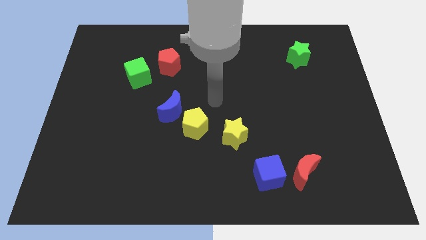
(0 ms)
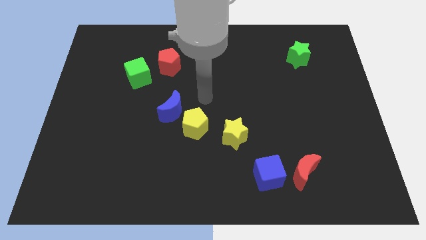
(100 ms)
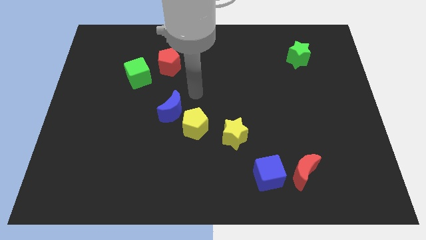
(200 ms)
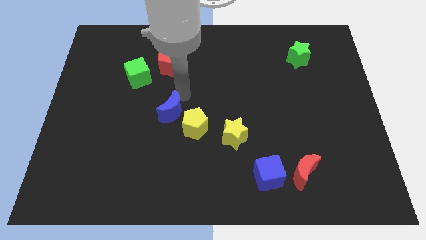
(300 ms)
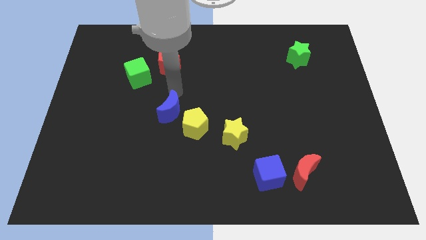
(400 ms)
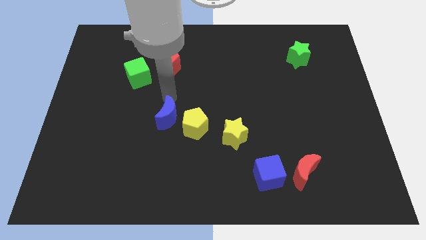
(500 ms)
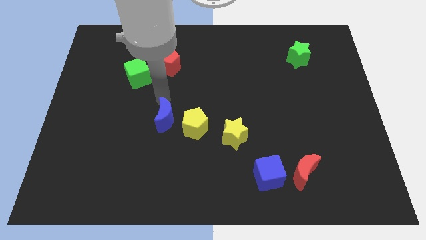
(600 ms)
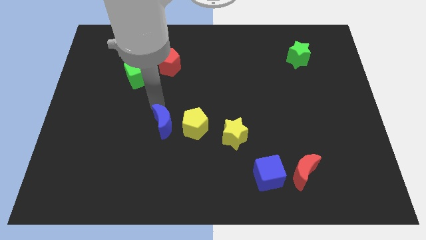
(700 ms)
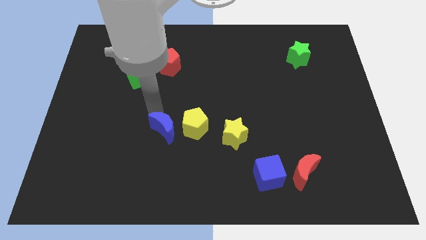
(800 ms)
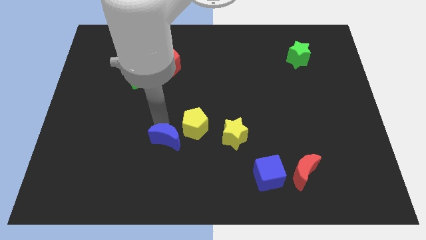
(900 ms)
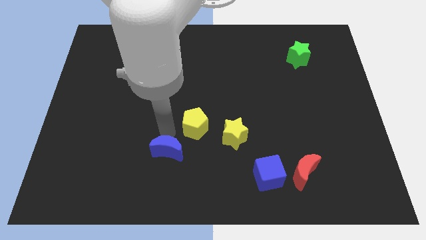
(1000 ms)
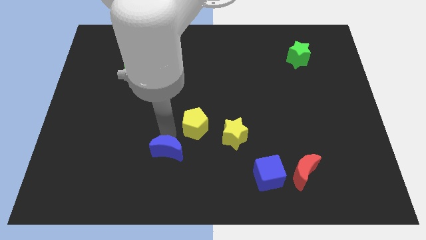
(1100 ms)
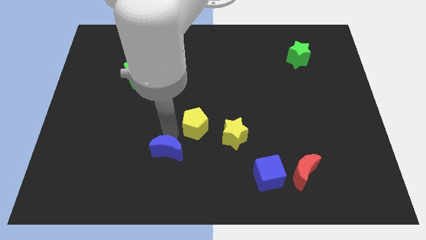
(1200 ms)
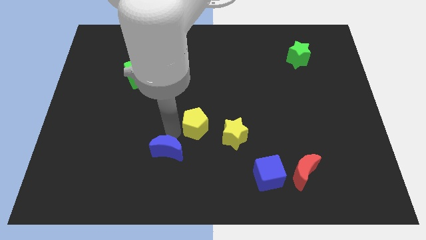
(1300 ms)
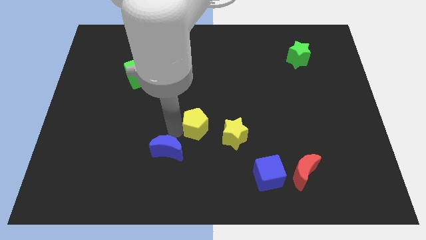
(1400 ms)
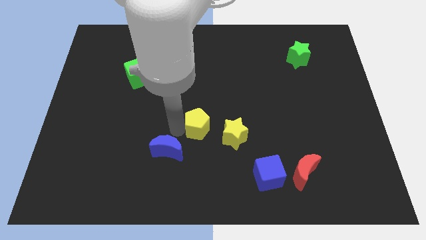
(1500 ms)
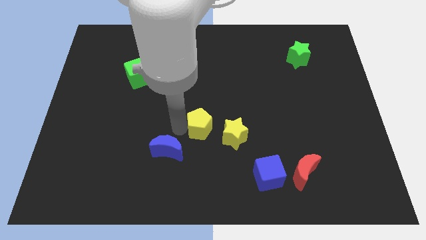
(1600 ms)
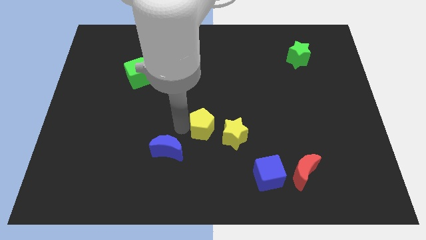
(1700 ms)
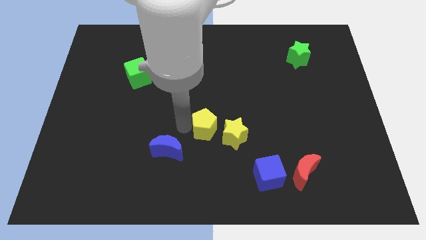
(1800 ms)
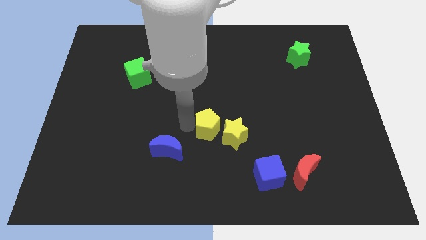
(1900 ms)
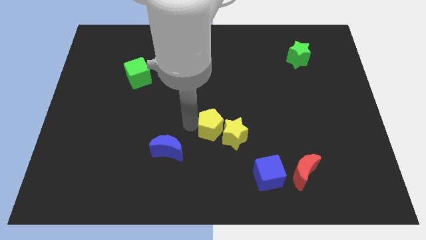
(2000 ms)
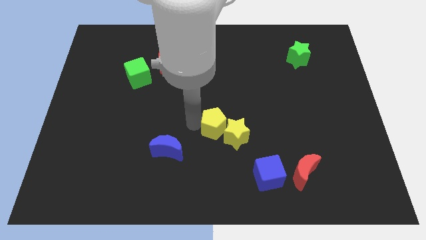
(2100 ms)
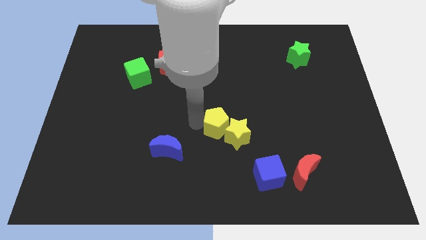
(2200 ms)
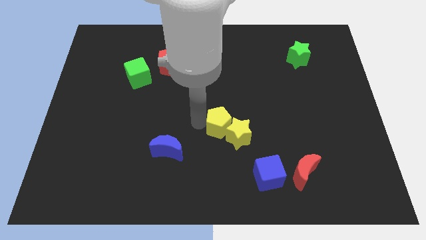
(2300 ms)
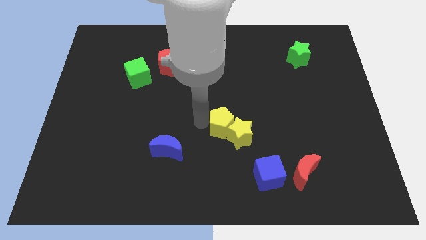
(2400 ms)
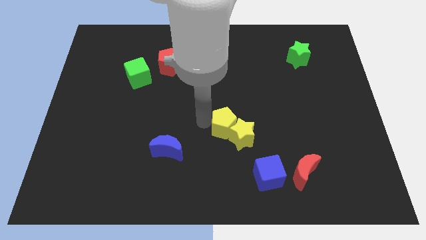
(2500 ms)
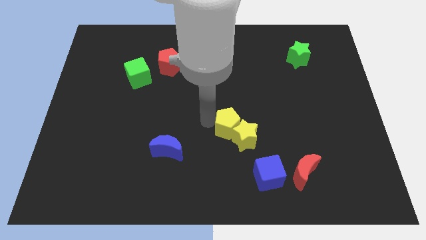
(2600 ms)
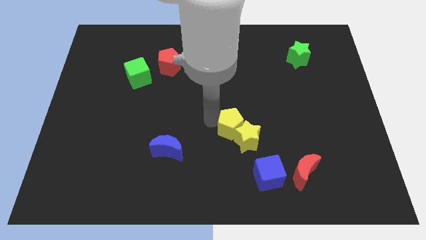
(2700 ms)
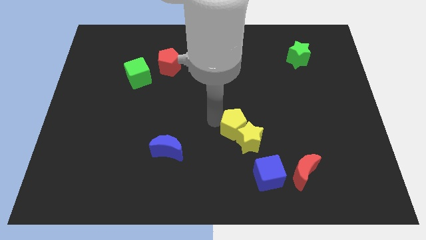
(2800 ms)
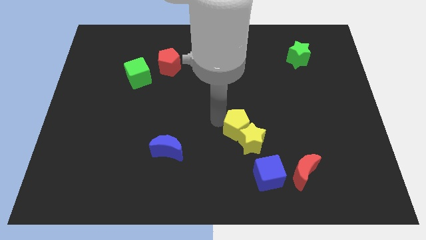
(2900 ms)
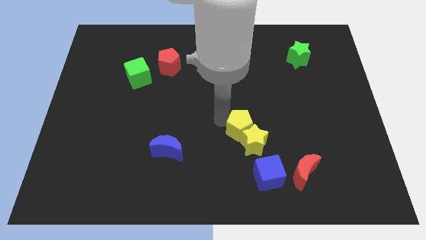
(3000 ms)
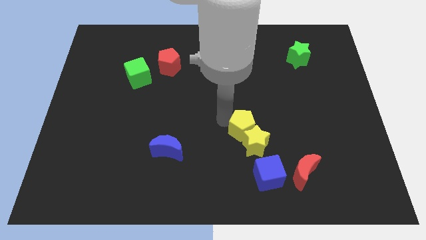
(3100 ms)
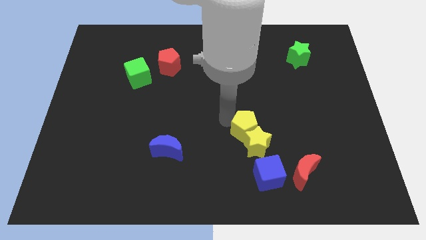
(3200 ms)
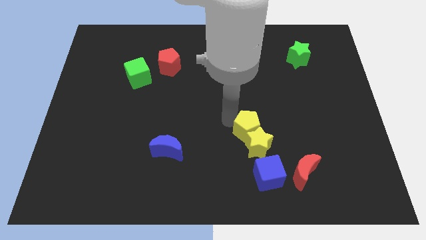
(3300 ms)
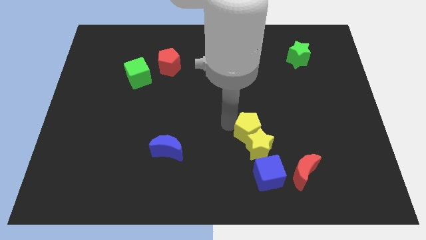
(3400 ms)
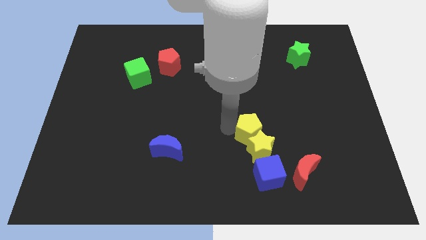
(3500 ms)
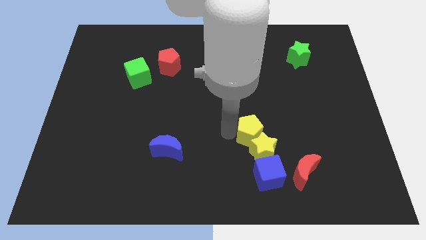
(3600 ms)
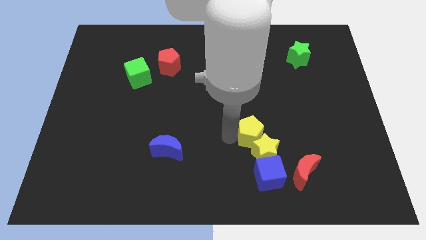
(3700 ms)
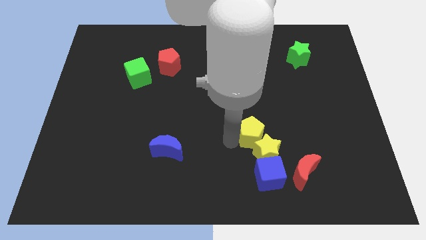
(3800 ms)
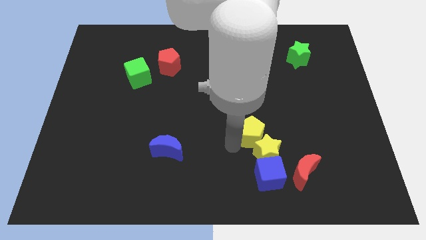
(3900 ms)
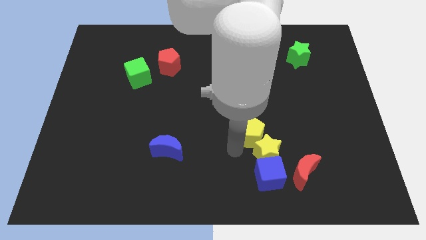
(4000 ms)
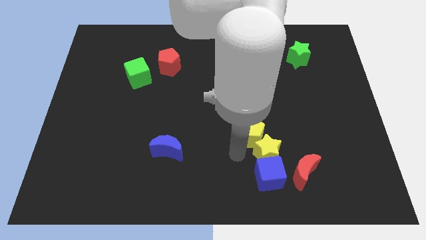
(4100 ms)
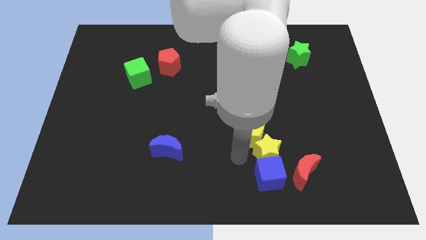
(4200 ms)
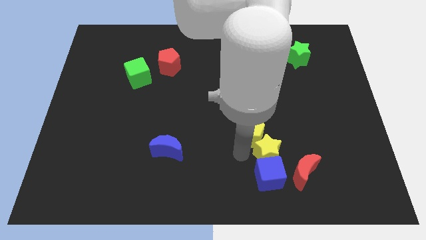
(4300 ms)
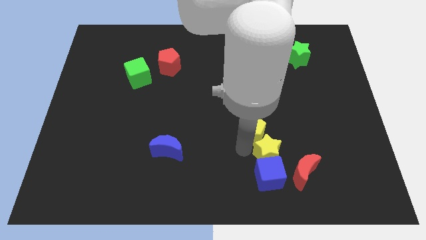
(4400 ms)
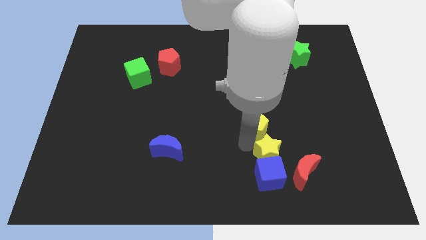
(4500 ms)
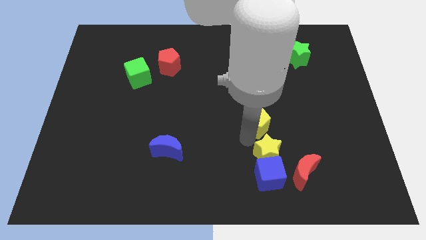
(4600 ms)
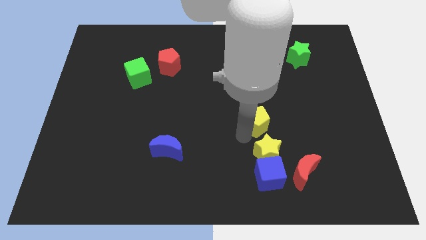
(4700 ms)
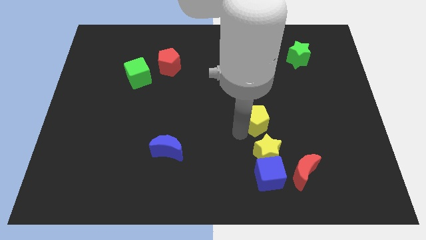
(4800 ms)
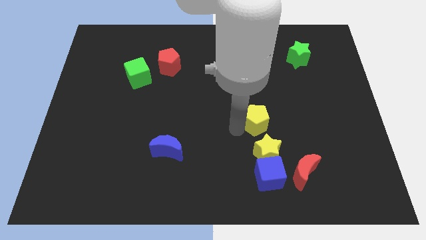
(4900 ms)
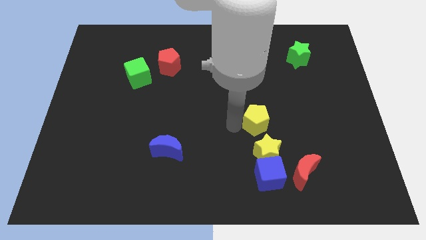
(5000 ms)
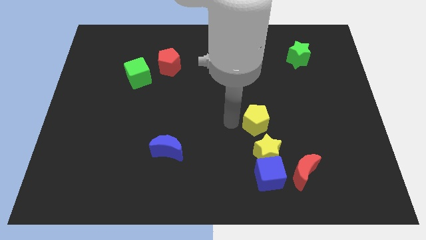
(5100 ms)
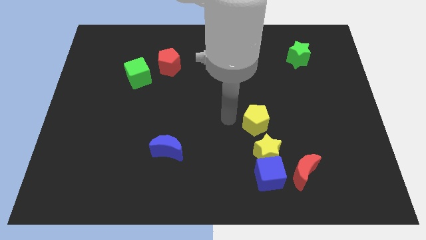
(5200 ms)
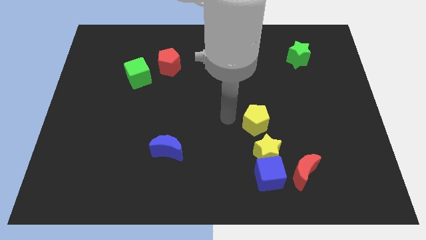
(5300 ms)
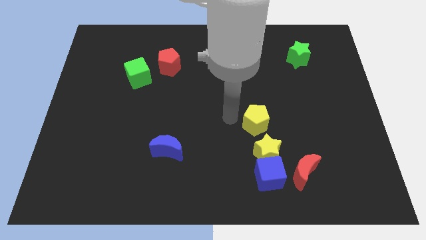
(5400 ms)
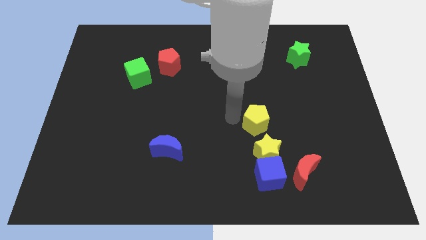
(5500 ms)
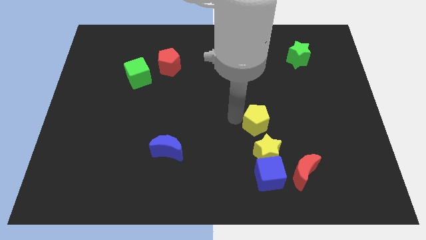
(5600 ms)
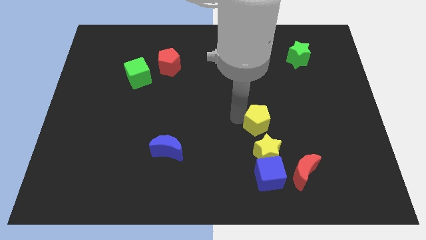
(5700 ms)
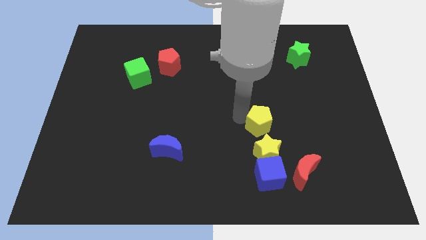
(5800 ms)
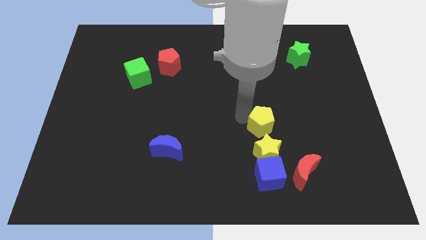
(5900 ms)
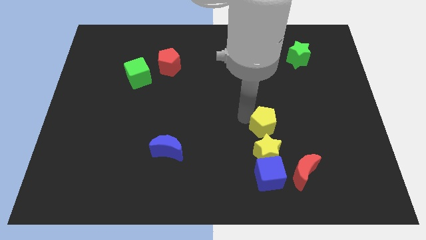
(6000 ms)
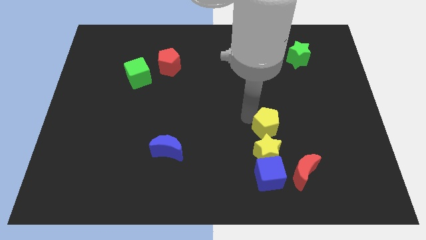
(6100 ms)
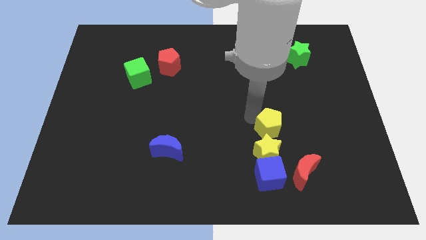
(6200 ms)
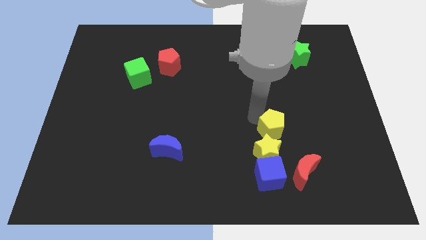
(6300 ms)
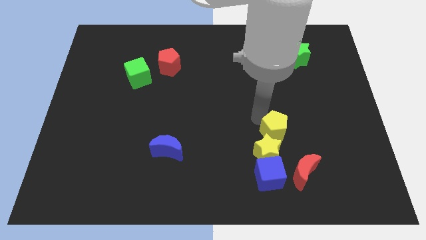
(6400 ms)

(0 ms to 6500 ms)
slide the yellow pentagon to the top side of the red moon

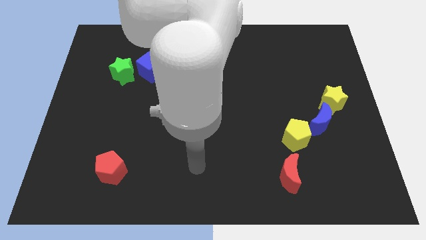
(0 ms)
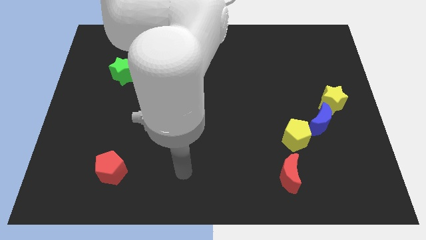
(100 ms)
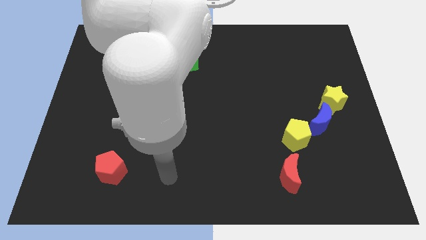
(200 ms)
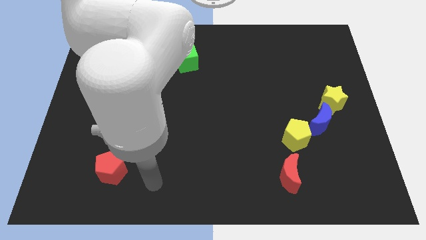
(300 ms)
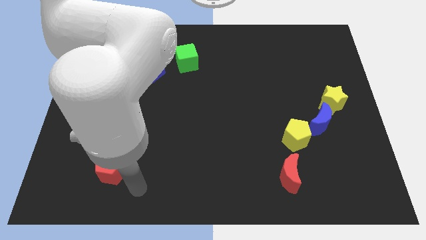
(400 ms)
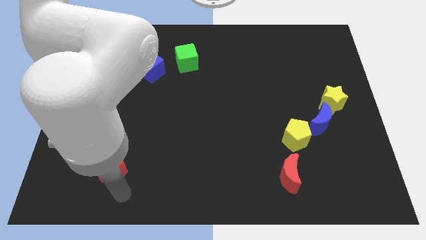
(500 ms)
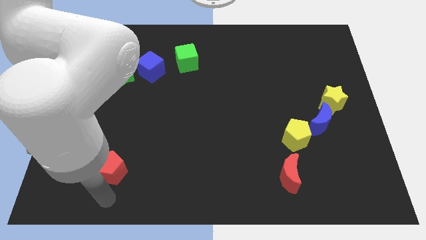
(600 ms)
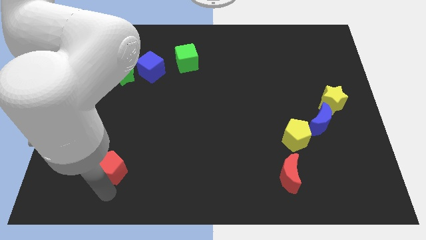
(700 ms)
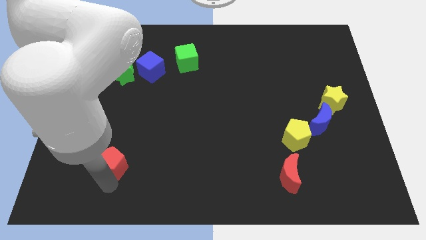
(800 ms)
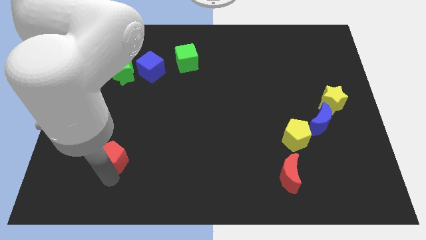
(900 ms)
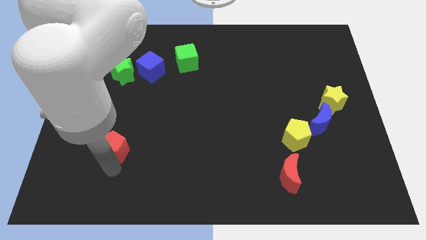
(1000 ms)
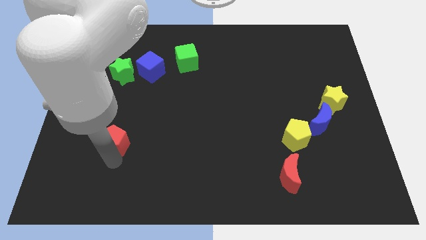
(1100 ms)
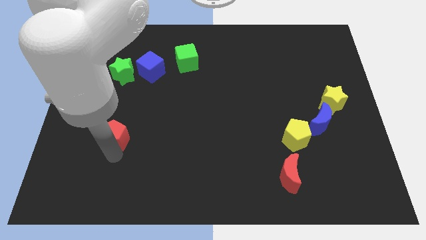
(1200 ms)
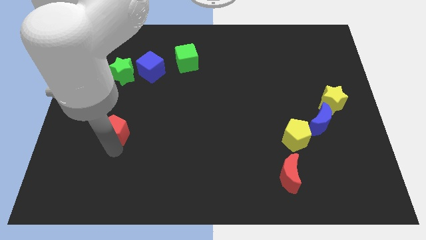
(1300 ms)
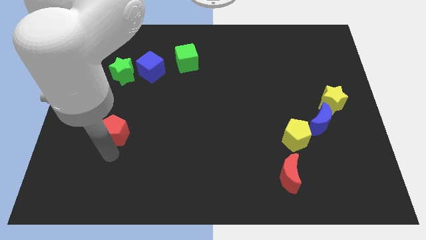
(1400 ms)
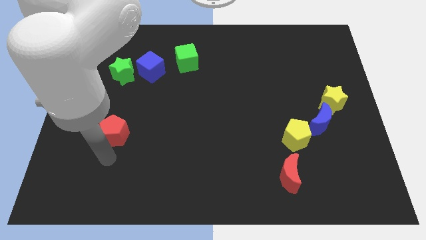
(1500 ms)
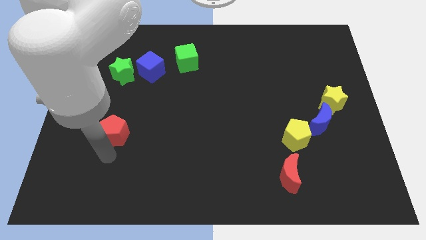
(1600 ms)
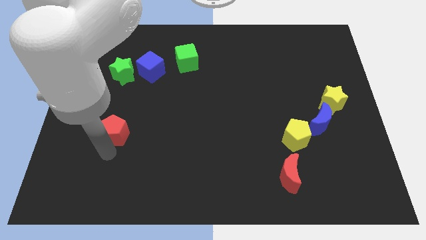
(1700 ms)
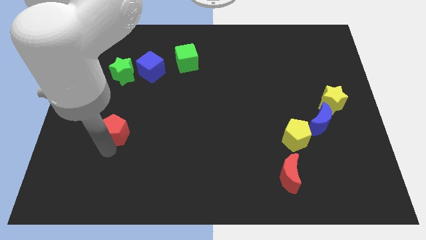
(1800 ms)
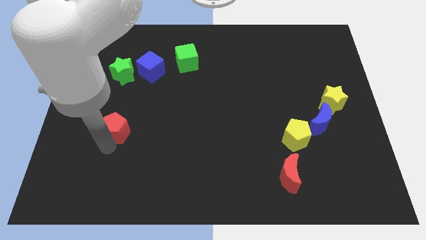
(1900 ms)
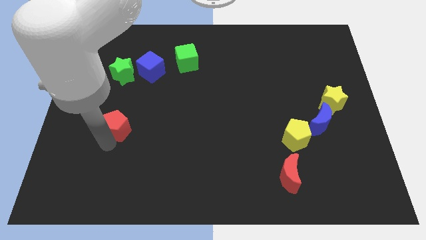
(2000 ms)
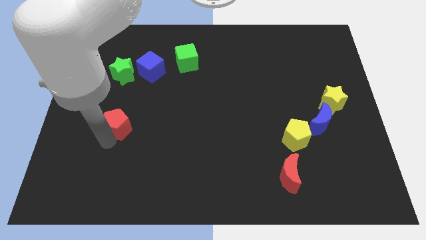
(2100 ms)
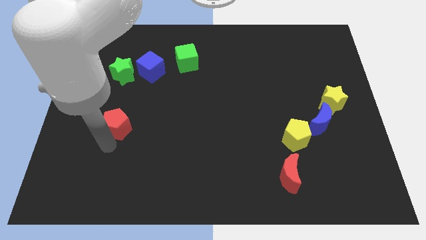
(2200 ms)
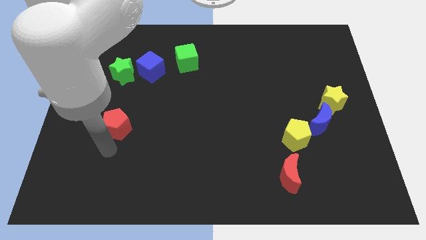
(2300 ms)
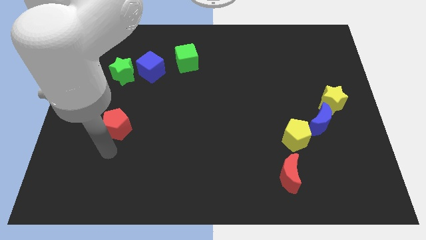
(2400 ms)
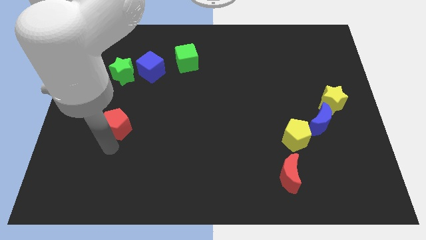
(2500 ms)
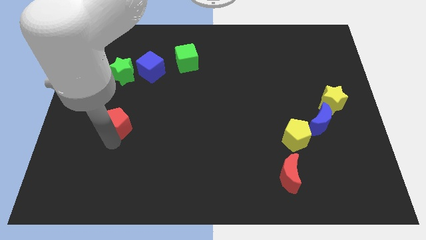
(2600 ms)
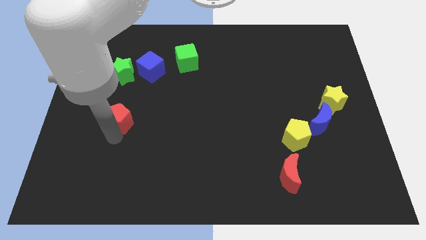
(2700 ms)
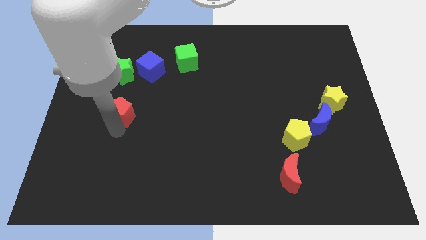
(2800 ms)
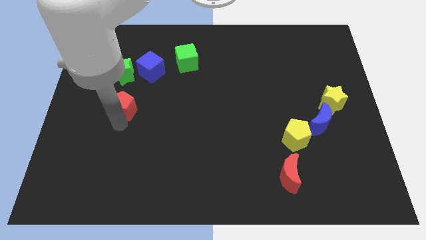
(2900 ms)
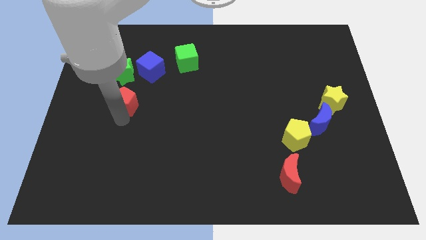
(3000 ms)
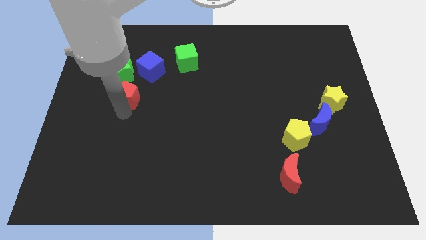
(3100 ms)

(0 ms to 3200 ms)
push the red pentagon to the bottom left of the blue cube
